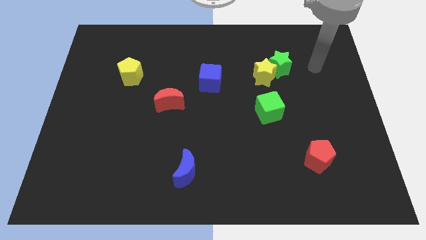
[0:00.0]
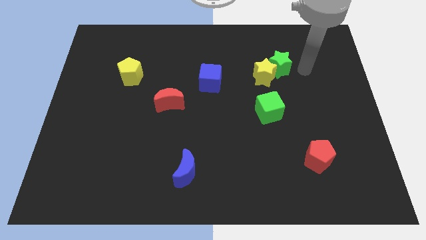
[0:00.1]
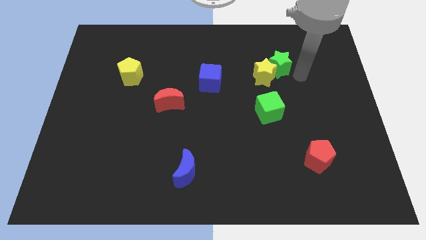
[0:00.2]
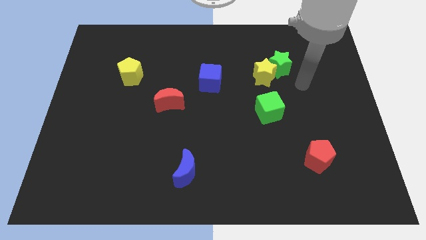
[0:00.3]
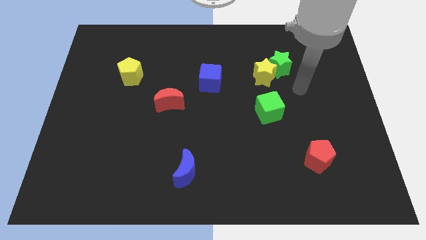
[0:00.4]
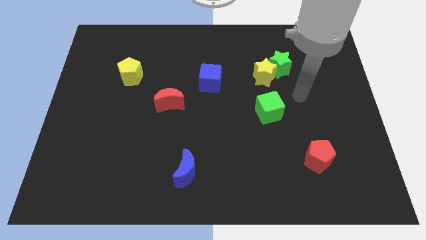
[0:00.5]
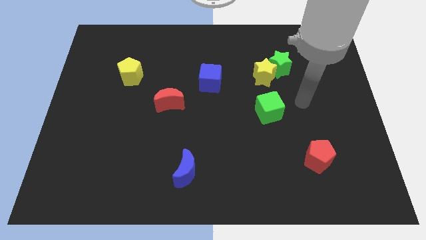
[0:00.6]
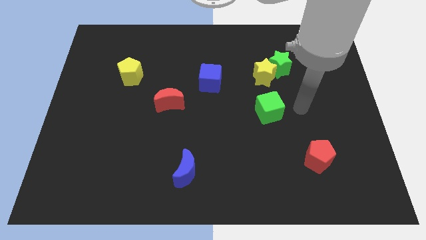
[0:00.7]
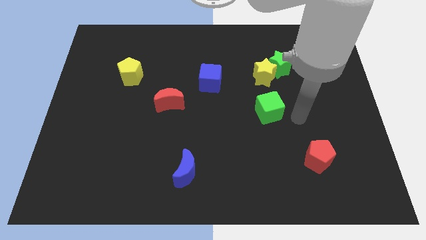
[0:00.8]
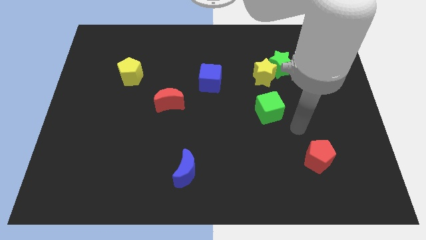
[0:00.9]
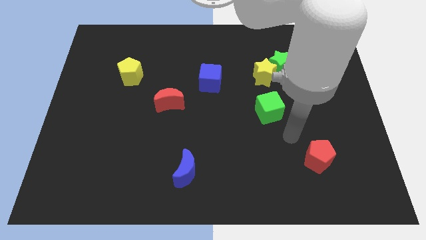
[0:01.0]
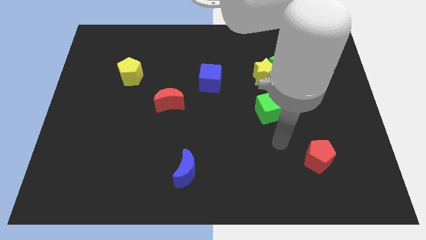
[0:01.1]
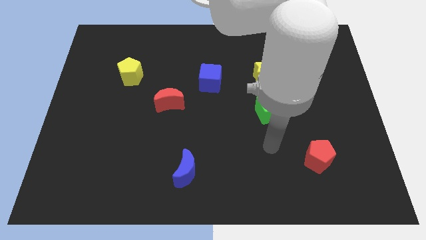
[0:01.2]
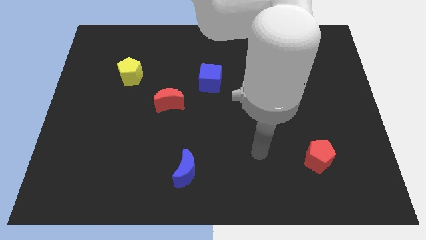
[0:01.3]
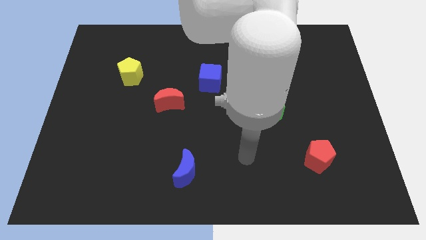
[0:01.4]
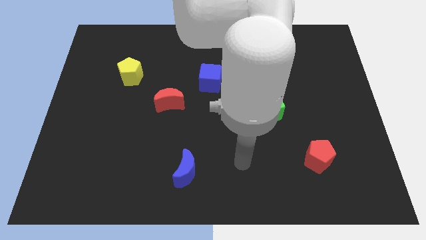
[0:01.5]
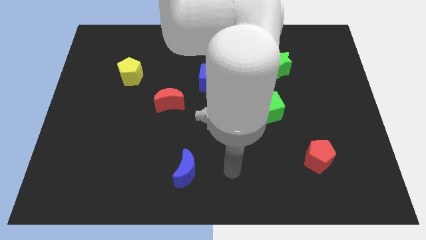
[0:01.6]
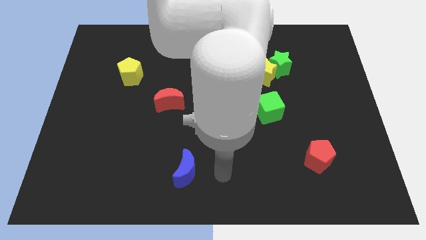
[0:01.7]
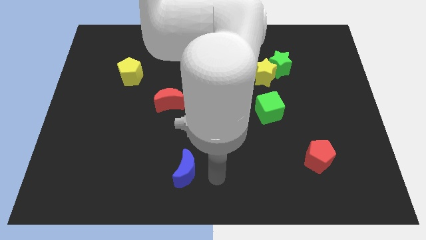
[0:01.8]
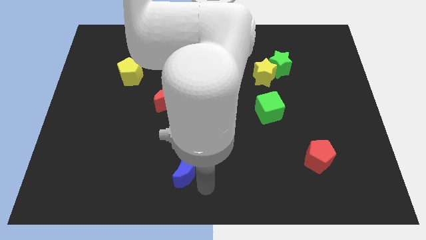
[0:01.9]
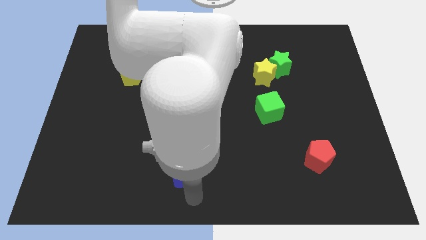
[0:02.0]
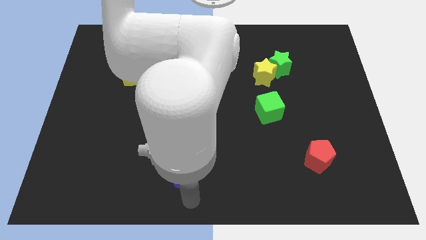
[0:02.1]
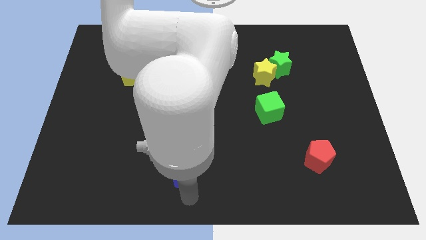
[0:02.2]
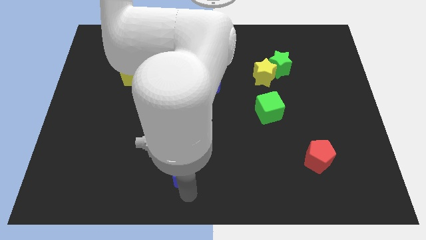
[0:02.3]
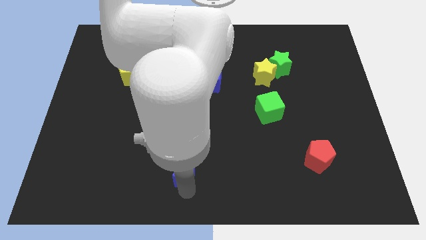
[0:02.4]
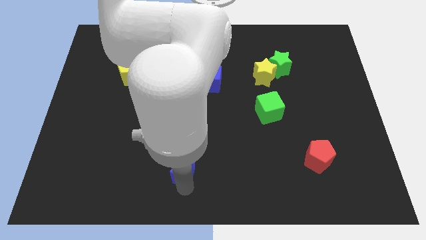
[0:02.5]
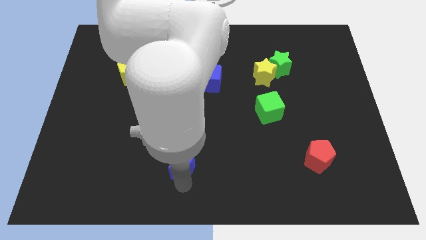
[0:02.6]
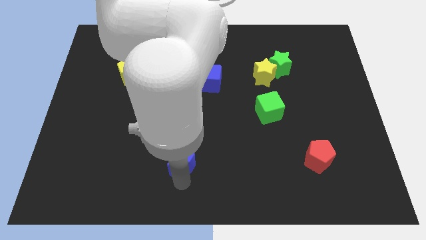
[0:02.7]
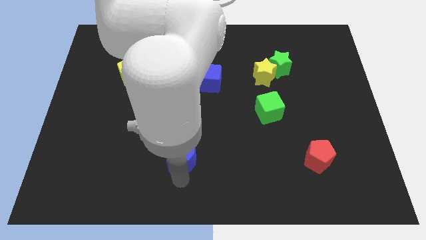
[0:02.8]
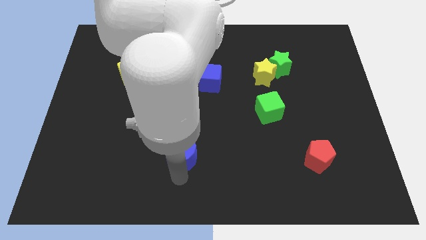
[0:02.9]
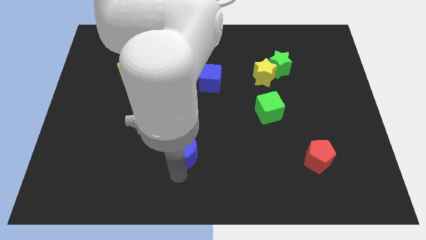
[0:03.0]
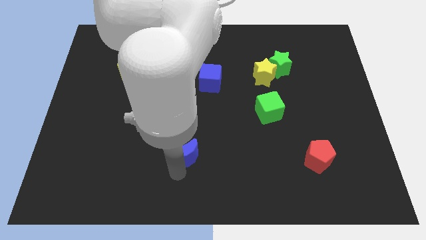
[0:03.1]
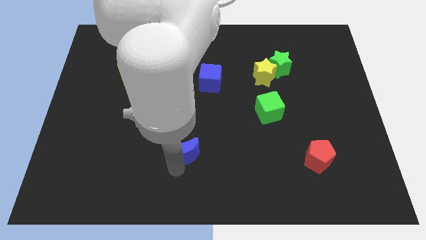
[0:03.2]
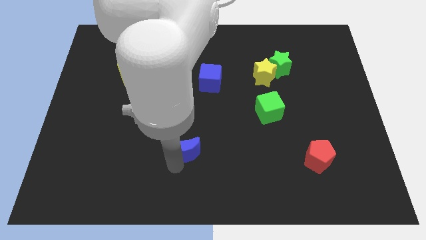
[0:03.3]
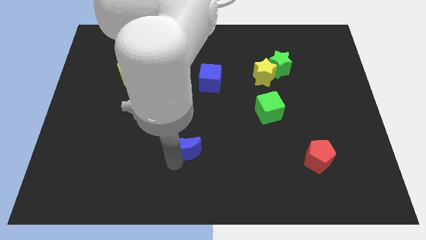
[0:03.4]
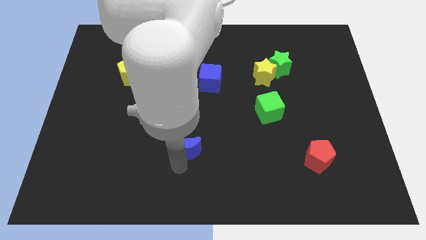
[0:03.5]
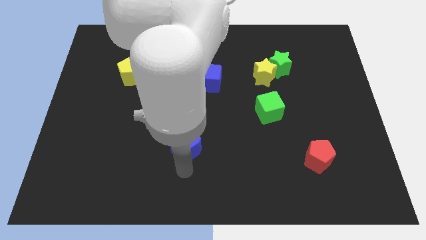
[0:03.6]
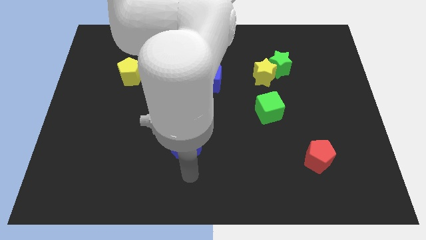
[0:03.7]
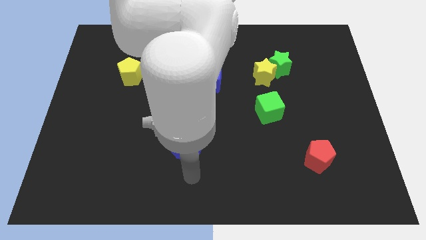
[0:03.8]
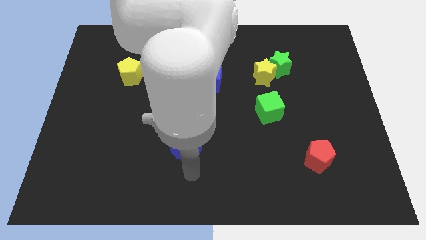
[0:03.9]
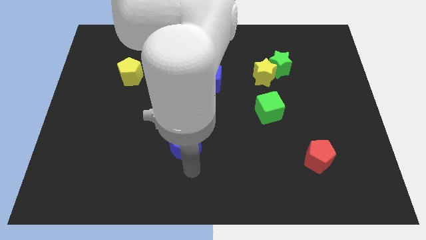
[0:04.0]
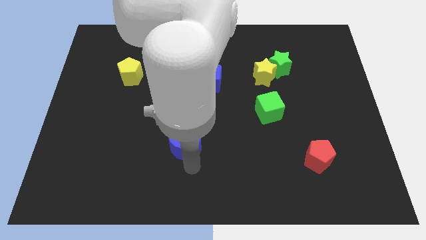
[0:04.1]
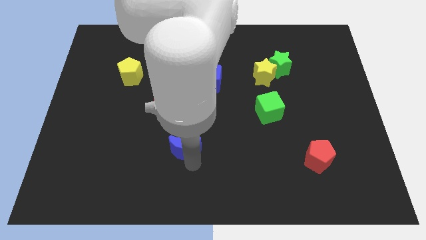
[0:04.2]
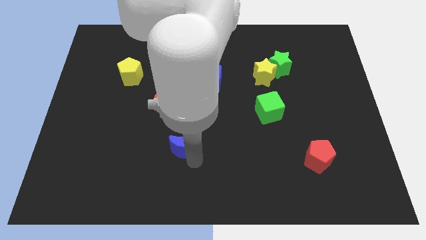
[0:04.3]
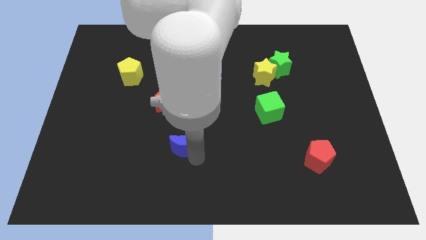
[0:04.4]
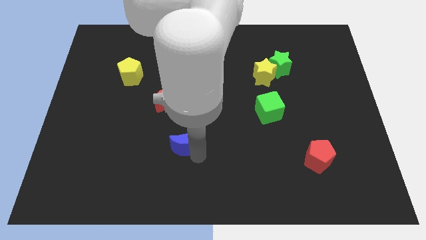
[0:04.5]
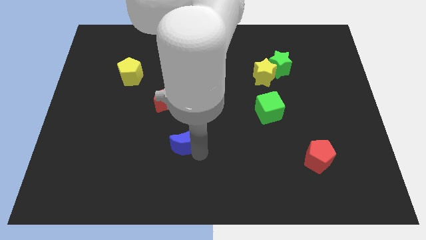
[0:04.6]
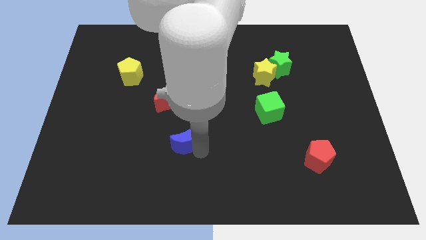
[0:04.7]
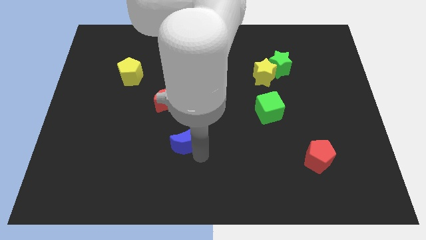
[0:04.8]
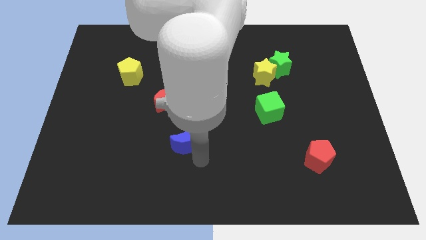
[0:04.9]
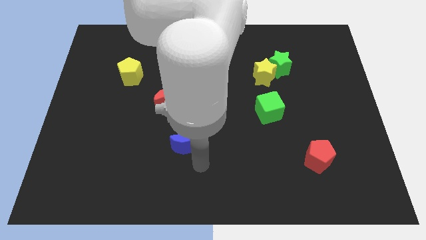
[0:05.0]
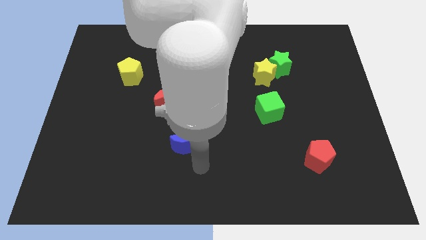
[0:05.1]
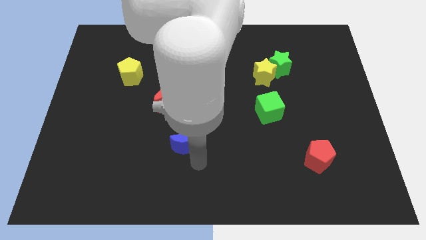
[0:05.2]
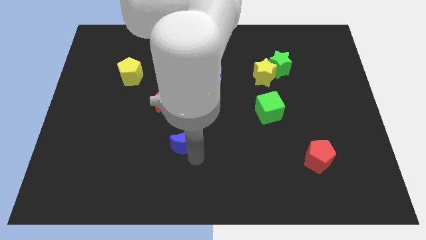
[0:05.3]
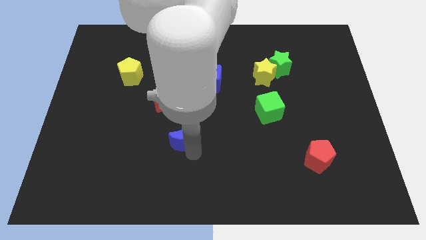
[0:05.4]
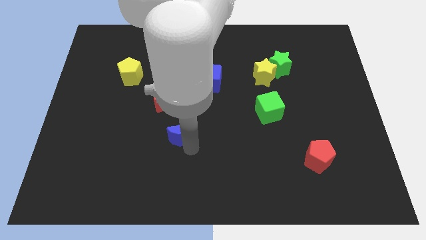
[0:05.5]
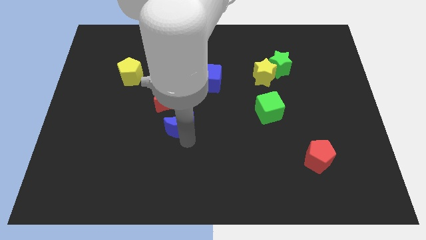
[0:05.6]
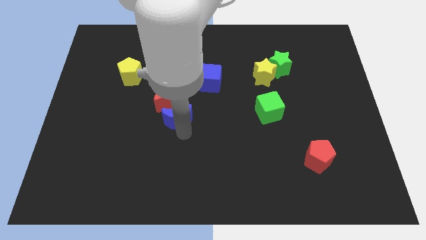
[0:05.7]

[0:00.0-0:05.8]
push the blue moon next to the red moon

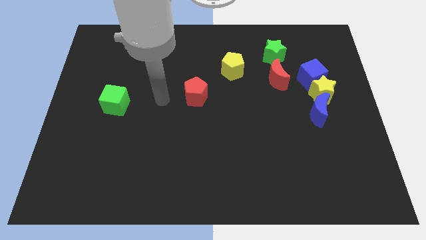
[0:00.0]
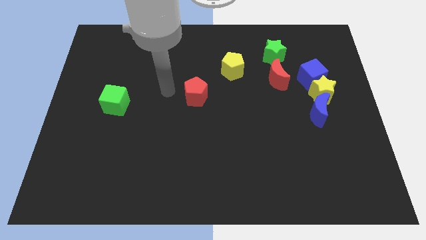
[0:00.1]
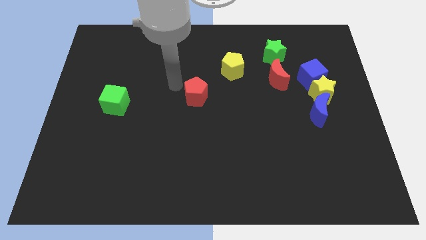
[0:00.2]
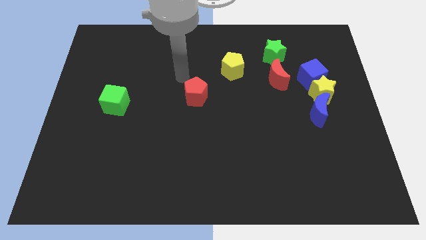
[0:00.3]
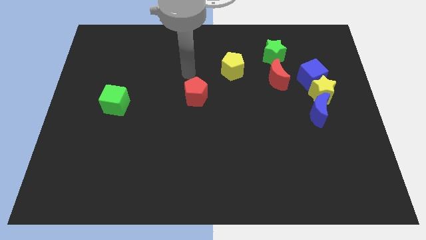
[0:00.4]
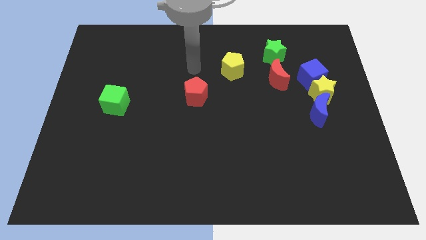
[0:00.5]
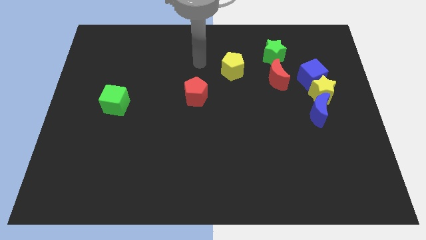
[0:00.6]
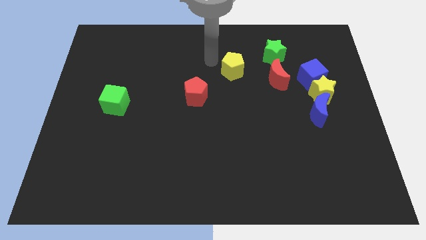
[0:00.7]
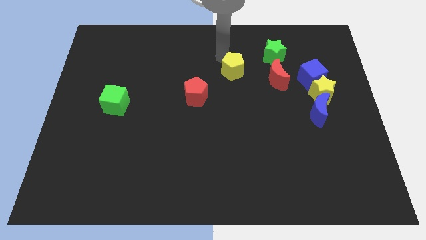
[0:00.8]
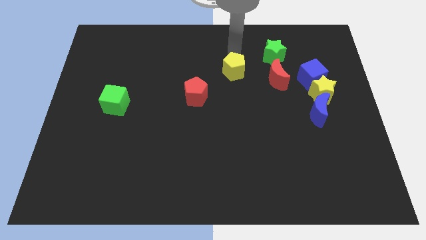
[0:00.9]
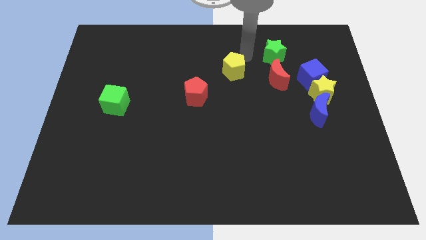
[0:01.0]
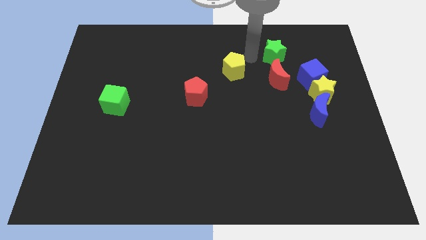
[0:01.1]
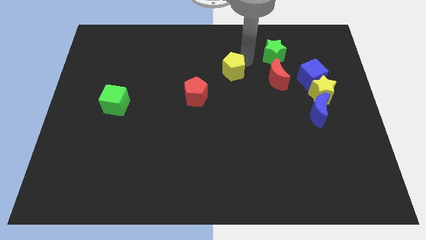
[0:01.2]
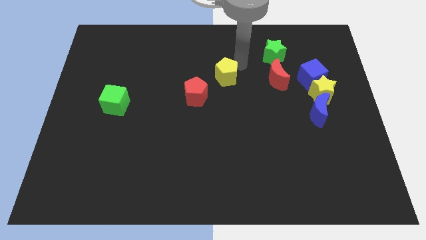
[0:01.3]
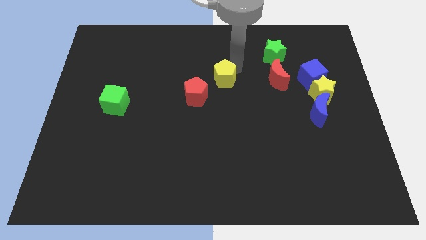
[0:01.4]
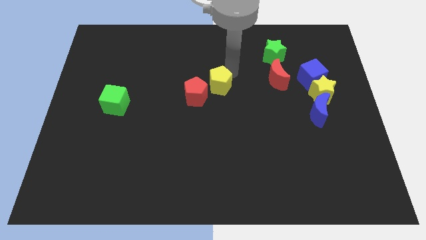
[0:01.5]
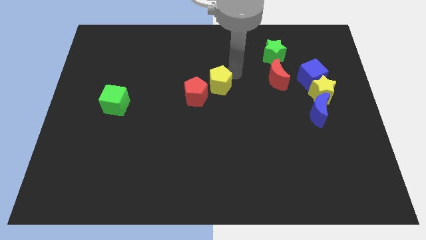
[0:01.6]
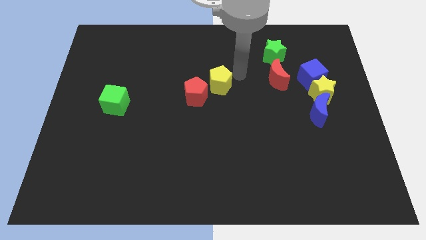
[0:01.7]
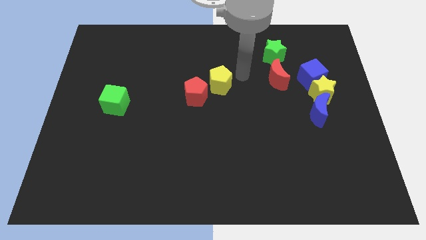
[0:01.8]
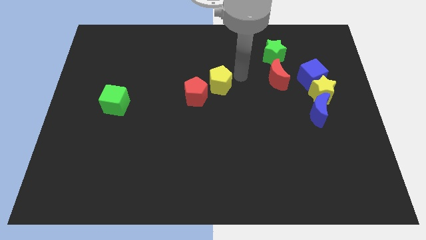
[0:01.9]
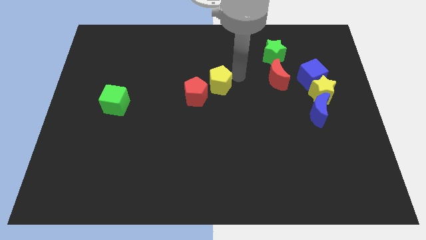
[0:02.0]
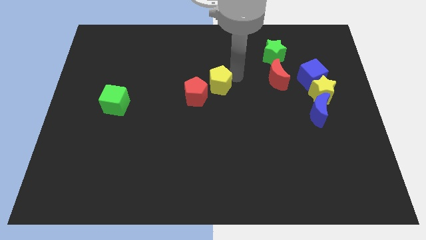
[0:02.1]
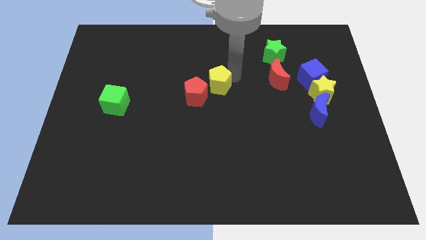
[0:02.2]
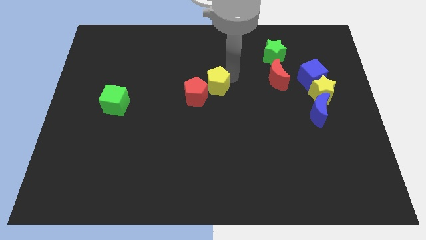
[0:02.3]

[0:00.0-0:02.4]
push the yellow pentagon close to the red pentagon
